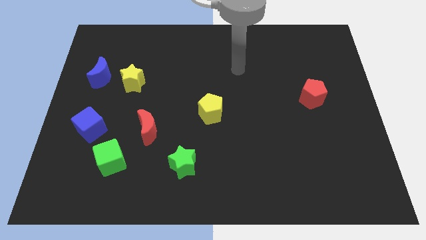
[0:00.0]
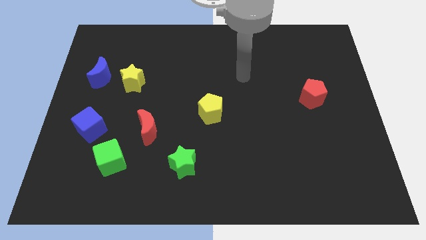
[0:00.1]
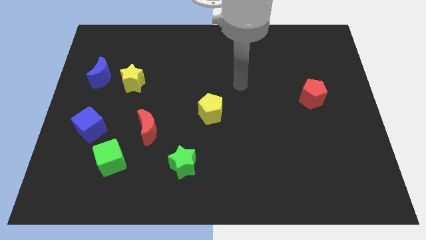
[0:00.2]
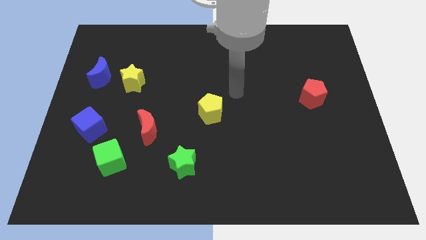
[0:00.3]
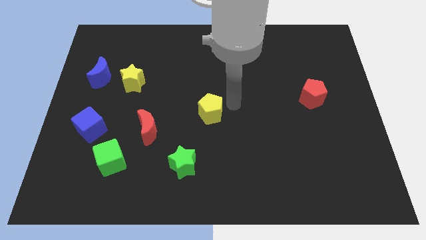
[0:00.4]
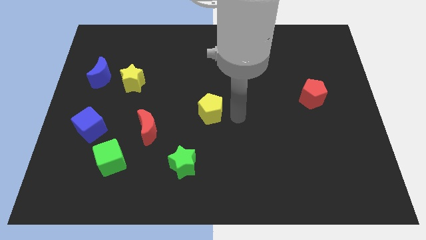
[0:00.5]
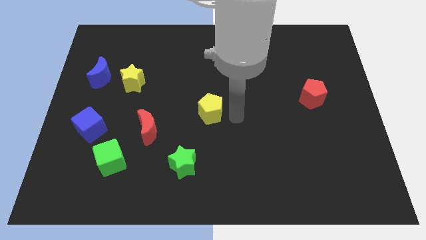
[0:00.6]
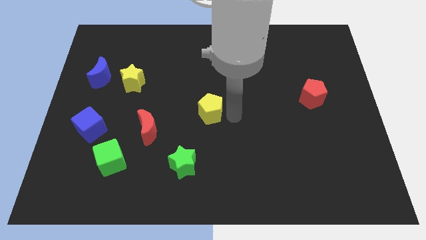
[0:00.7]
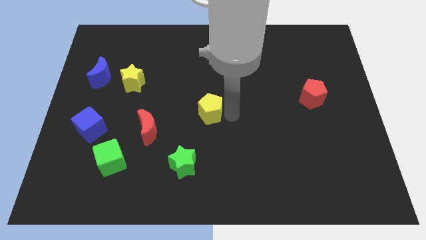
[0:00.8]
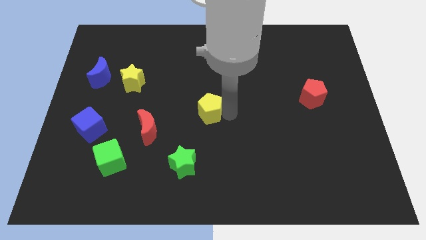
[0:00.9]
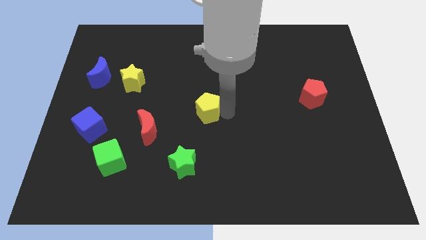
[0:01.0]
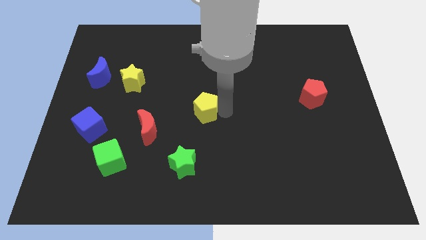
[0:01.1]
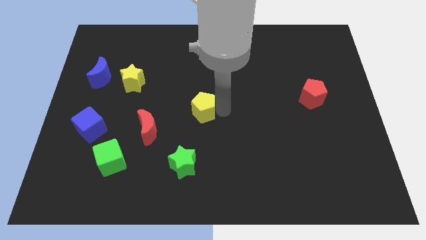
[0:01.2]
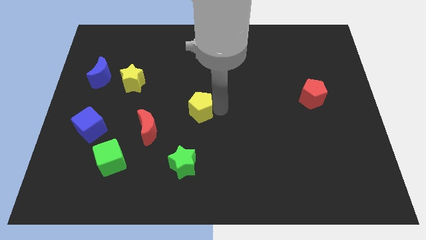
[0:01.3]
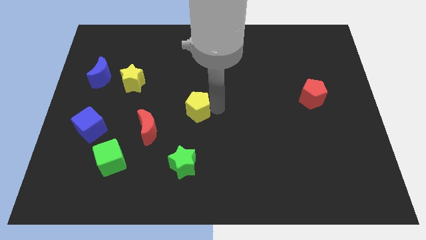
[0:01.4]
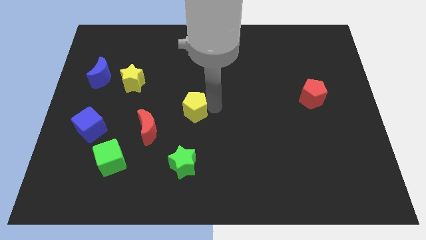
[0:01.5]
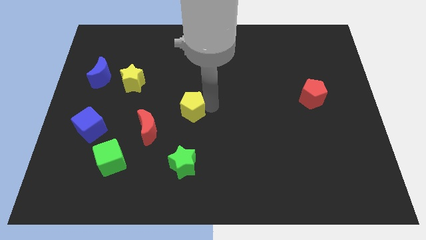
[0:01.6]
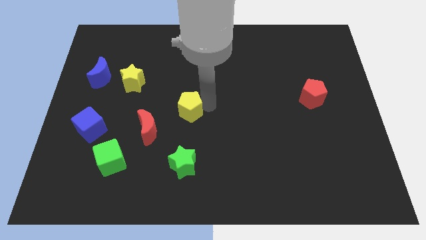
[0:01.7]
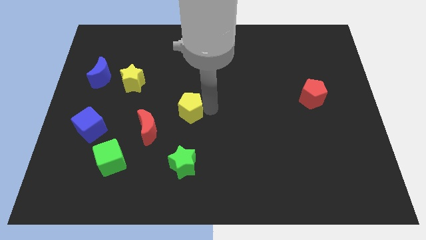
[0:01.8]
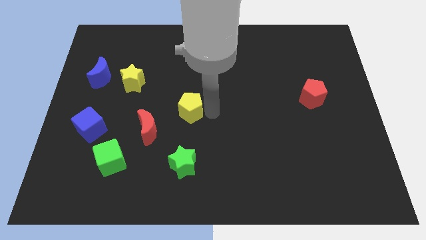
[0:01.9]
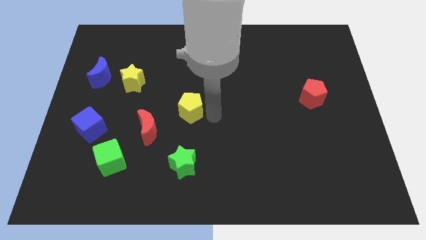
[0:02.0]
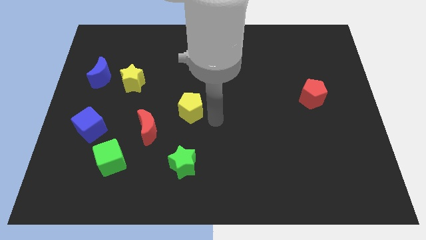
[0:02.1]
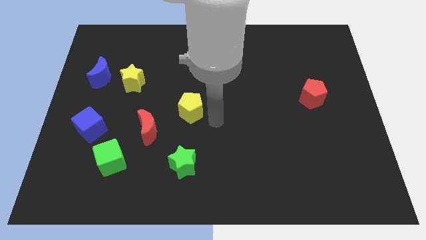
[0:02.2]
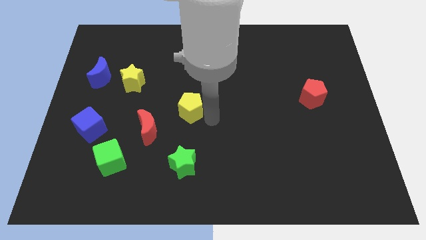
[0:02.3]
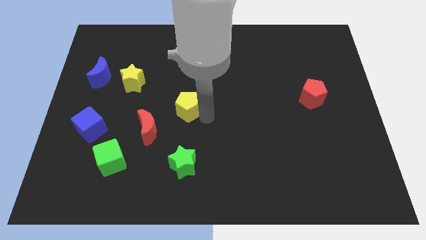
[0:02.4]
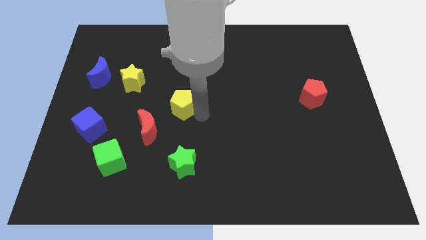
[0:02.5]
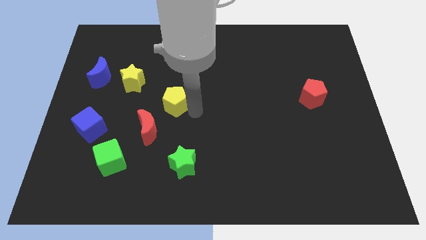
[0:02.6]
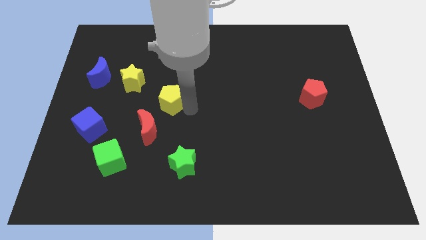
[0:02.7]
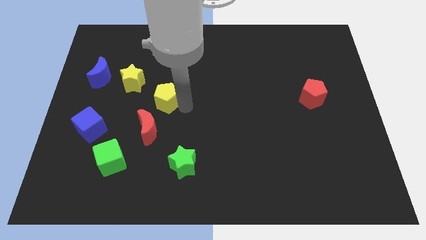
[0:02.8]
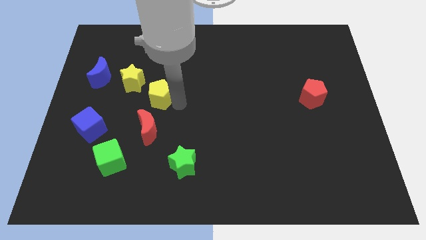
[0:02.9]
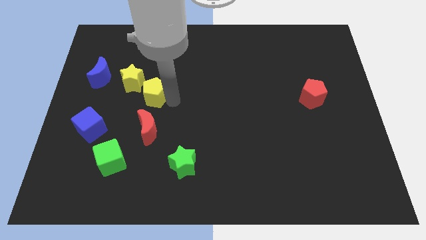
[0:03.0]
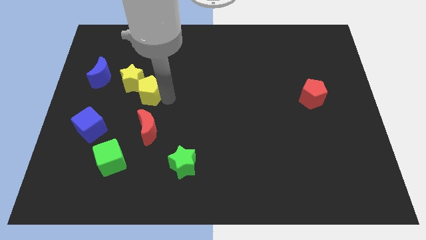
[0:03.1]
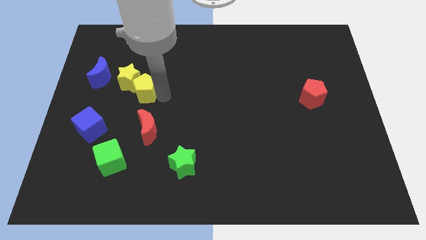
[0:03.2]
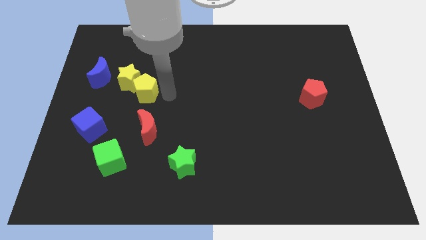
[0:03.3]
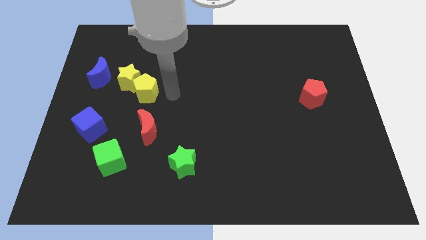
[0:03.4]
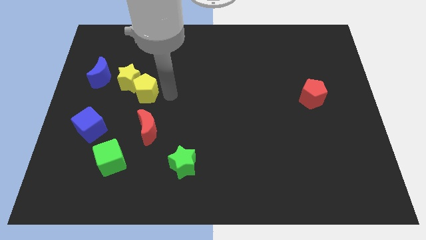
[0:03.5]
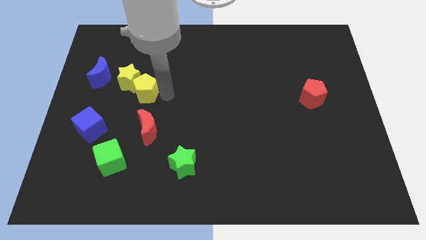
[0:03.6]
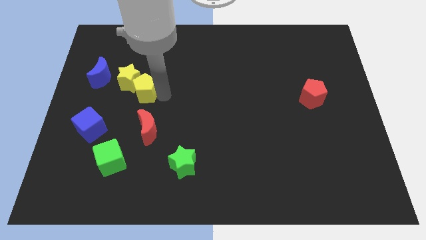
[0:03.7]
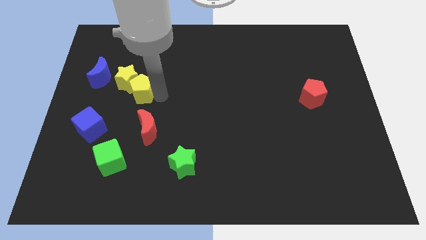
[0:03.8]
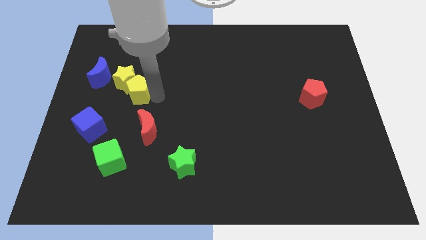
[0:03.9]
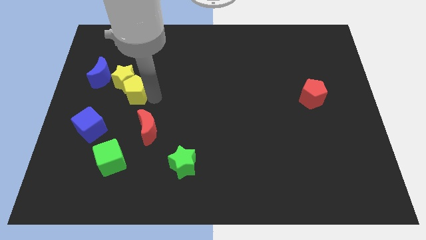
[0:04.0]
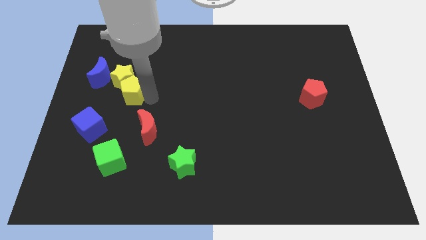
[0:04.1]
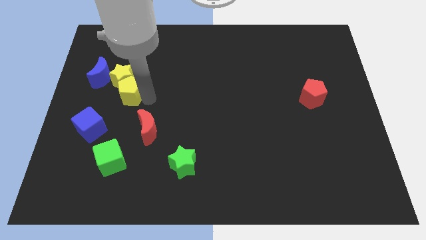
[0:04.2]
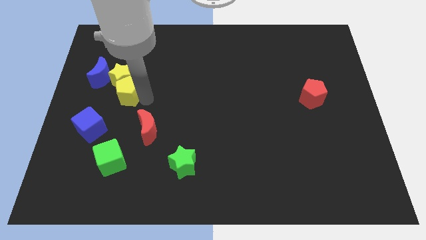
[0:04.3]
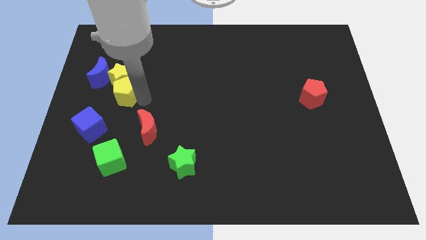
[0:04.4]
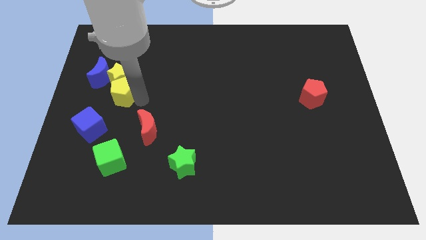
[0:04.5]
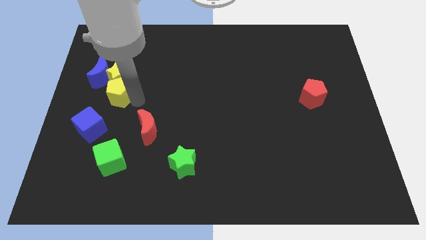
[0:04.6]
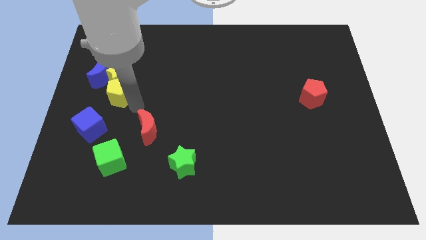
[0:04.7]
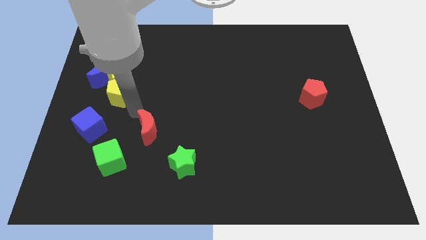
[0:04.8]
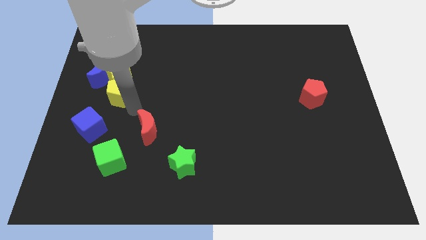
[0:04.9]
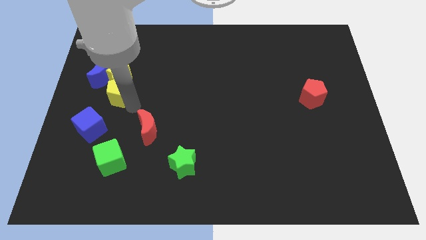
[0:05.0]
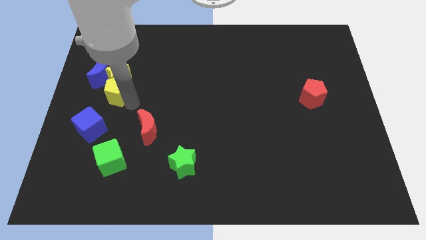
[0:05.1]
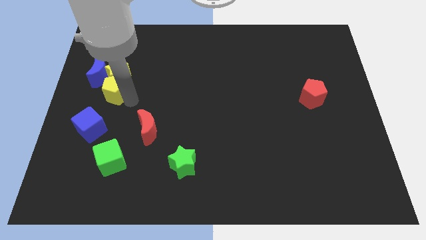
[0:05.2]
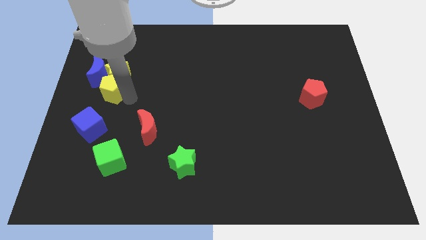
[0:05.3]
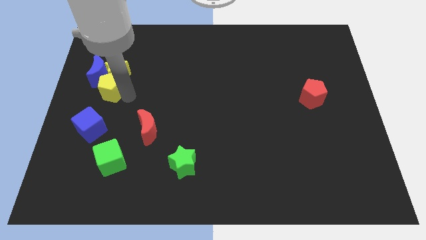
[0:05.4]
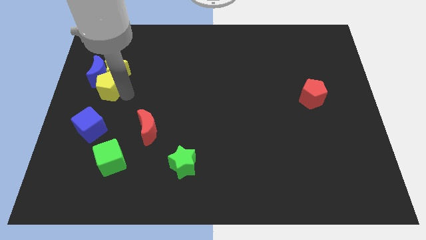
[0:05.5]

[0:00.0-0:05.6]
push the yellow pentagon next to the blue moon
